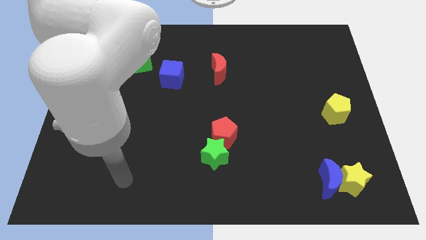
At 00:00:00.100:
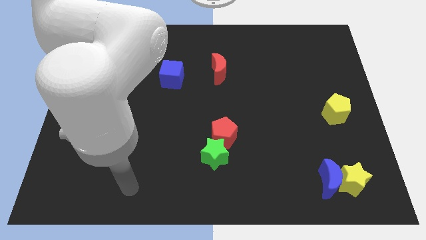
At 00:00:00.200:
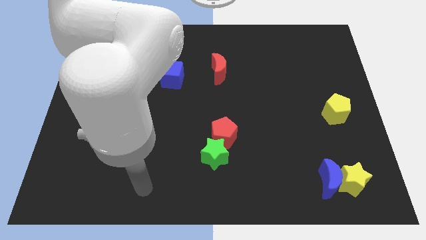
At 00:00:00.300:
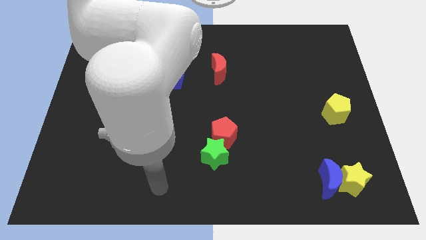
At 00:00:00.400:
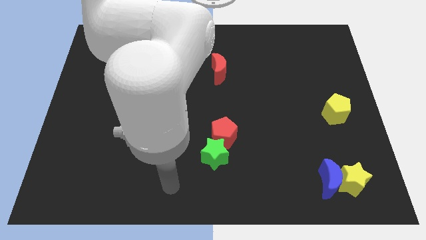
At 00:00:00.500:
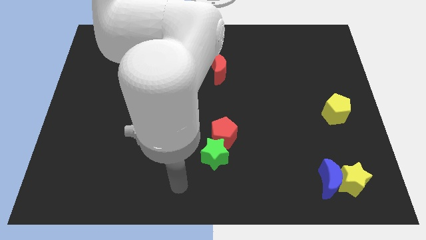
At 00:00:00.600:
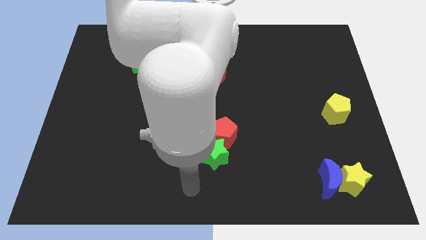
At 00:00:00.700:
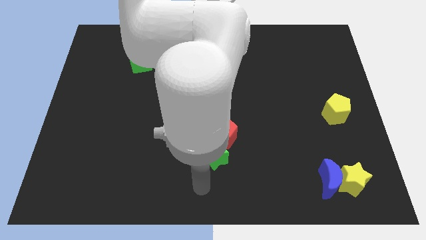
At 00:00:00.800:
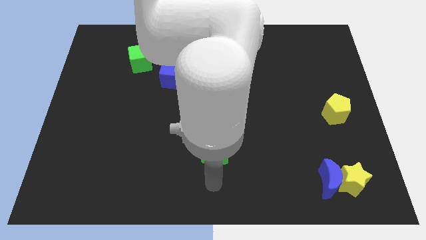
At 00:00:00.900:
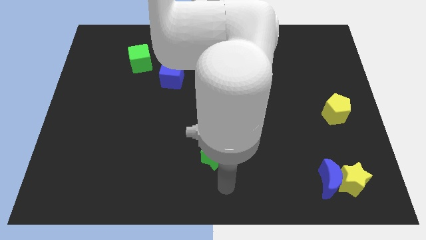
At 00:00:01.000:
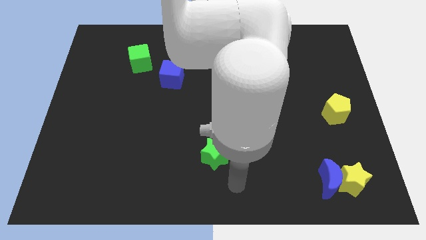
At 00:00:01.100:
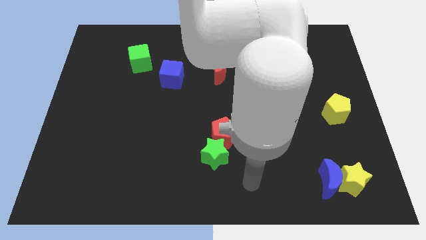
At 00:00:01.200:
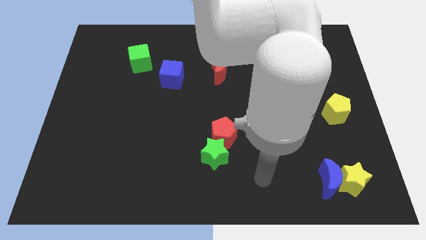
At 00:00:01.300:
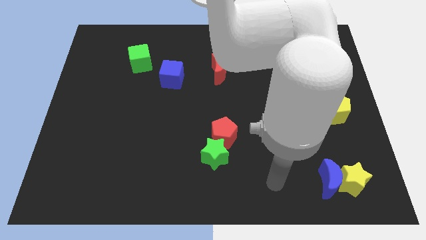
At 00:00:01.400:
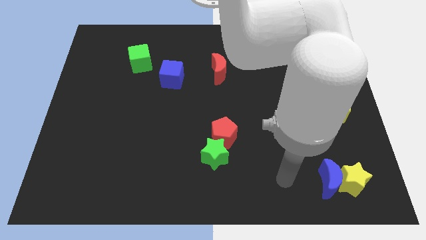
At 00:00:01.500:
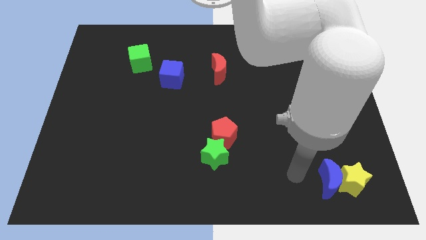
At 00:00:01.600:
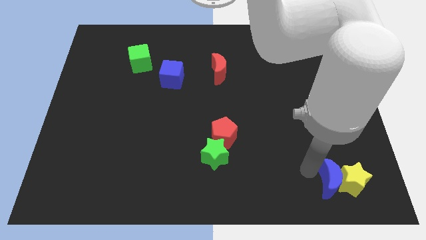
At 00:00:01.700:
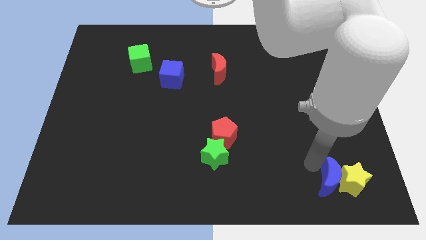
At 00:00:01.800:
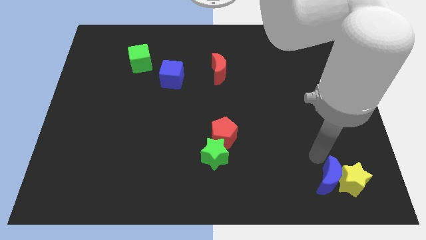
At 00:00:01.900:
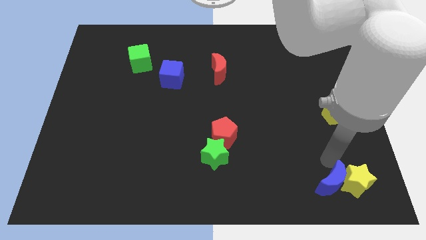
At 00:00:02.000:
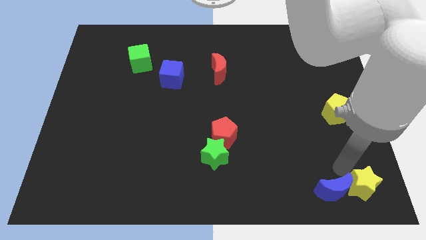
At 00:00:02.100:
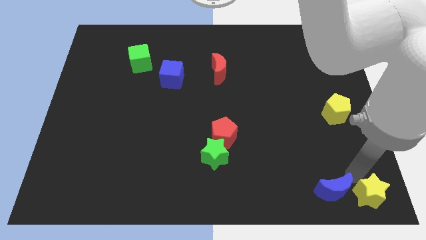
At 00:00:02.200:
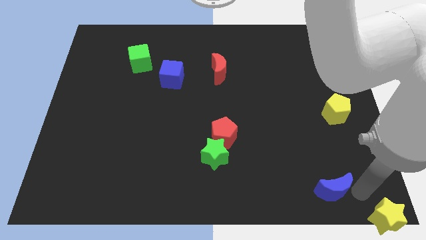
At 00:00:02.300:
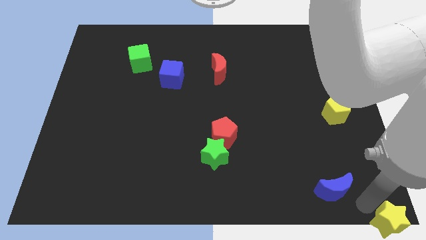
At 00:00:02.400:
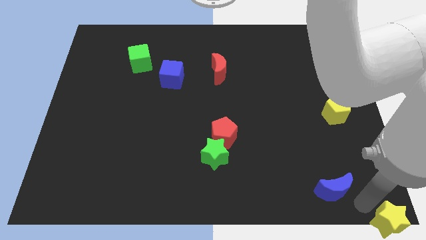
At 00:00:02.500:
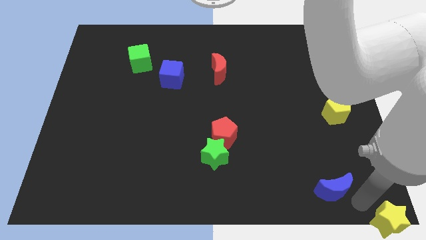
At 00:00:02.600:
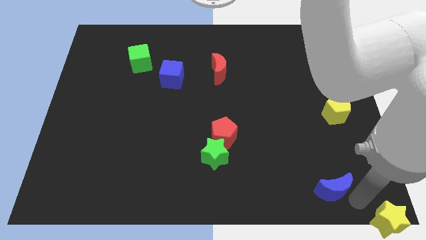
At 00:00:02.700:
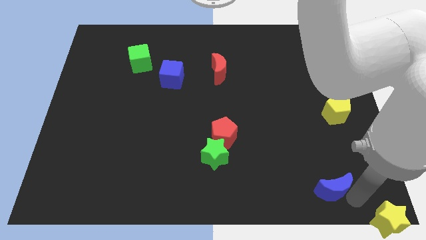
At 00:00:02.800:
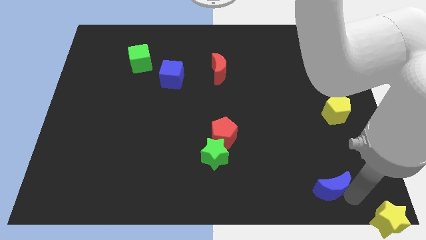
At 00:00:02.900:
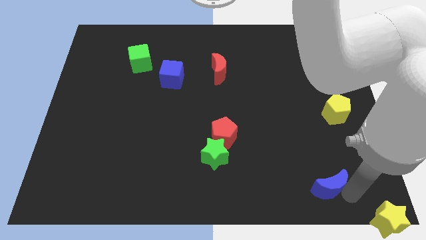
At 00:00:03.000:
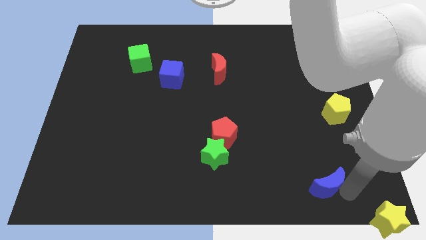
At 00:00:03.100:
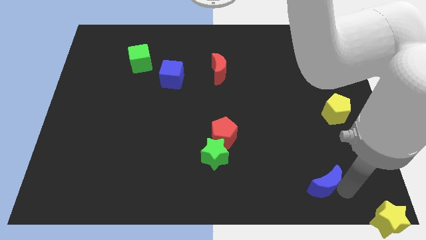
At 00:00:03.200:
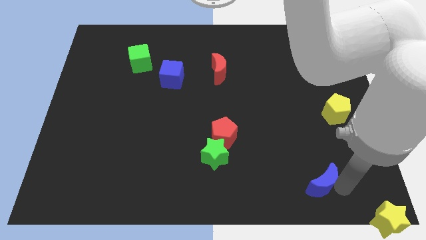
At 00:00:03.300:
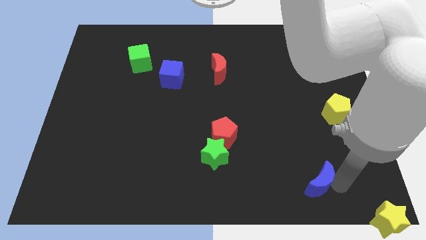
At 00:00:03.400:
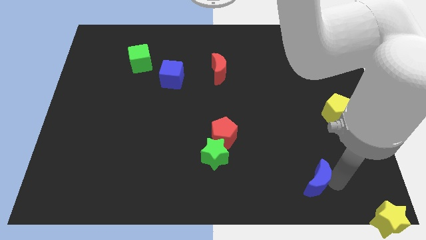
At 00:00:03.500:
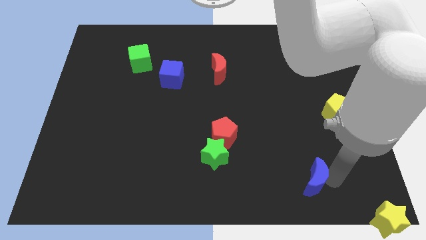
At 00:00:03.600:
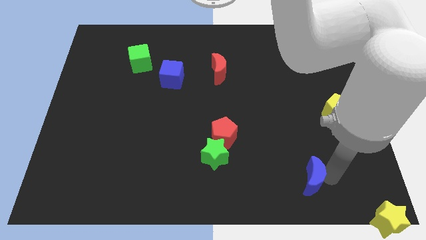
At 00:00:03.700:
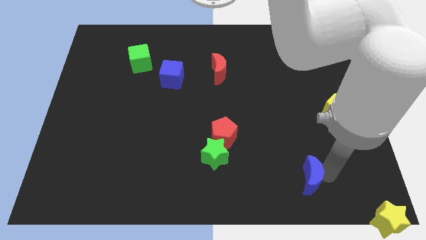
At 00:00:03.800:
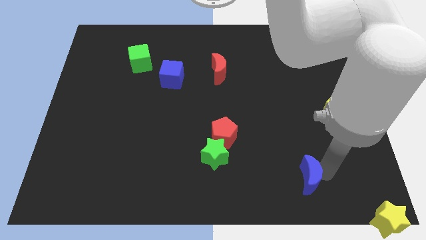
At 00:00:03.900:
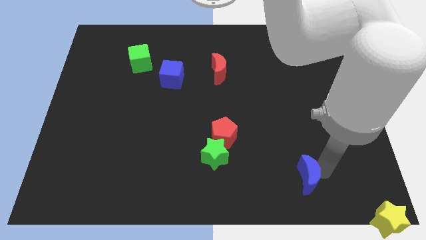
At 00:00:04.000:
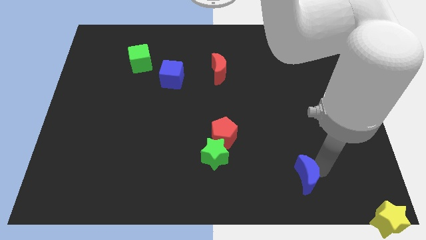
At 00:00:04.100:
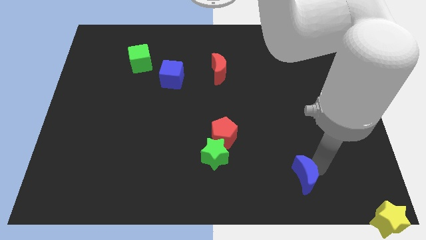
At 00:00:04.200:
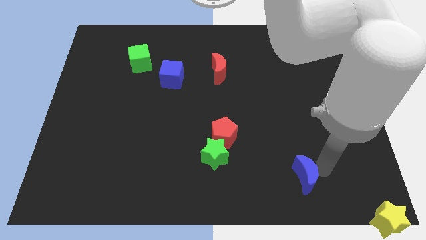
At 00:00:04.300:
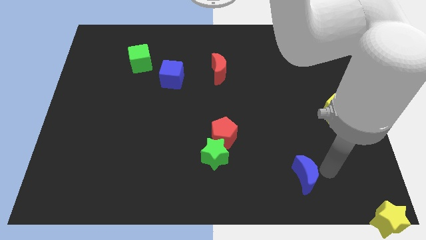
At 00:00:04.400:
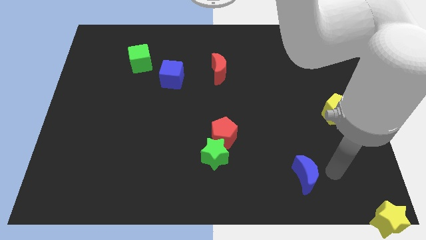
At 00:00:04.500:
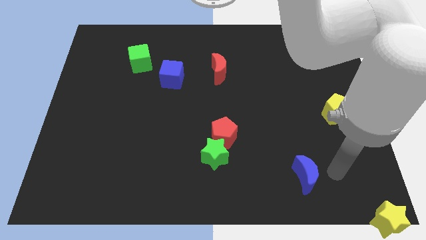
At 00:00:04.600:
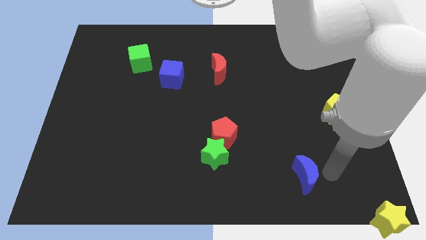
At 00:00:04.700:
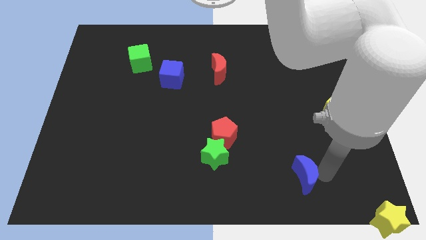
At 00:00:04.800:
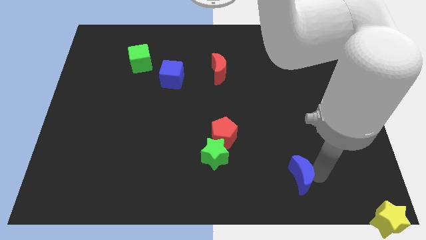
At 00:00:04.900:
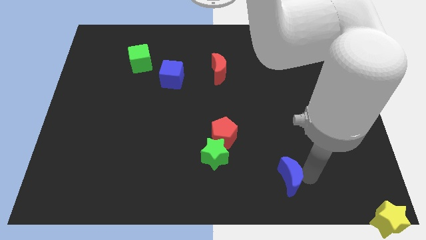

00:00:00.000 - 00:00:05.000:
slide the blue moon left a little bit

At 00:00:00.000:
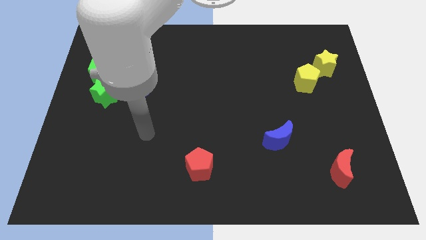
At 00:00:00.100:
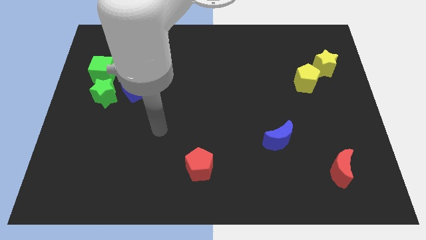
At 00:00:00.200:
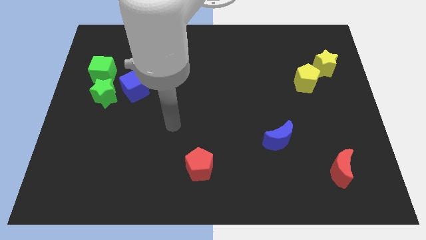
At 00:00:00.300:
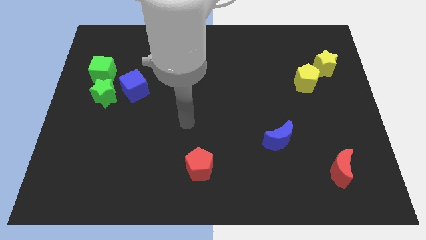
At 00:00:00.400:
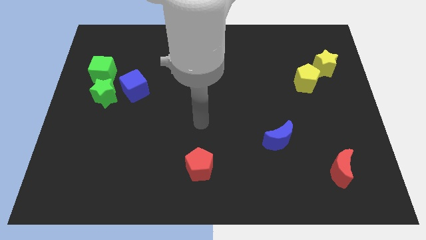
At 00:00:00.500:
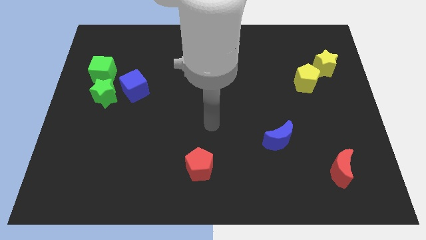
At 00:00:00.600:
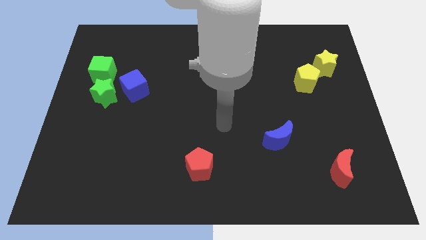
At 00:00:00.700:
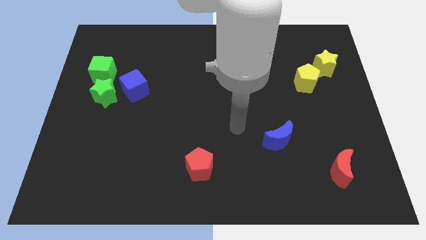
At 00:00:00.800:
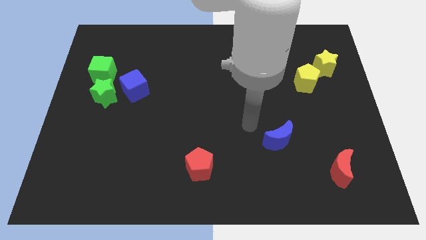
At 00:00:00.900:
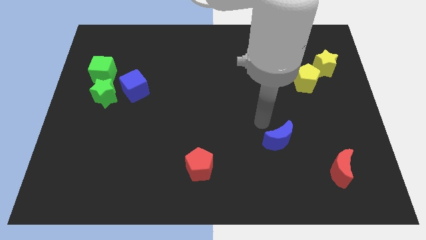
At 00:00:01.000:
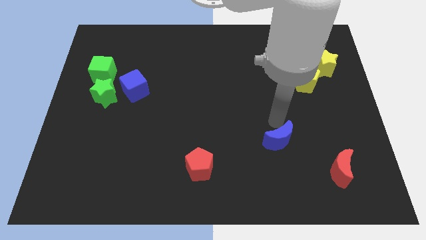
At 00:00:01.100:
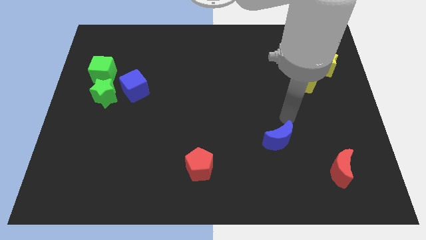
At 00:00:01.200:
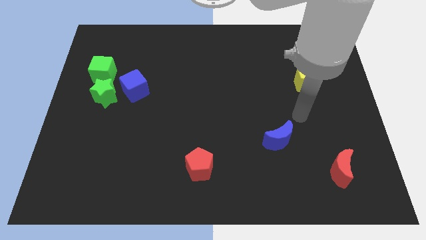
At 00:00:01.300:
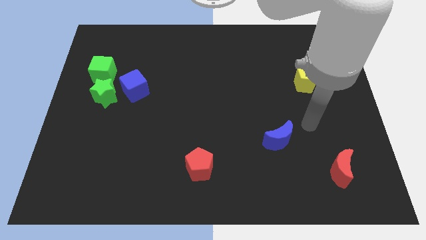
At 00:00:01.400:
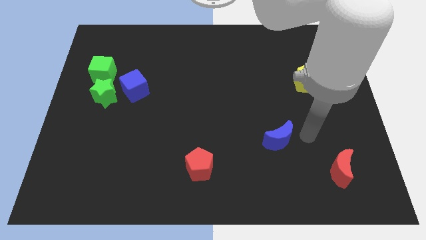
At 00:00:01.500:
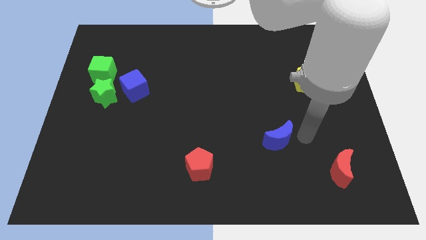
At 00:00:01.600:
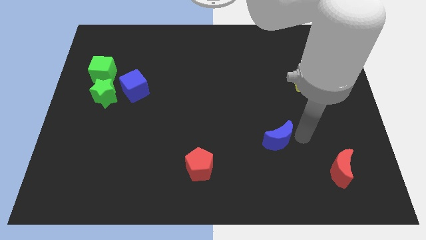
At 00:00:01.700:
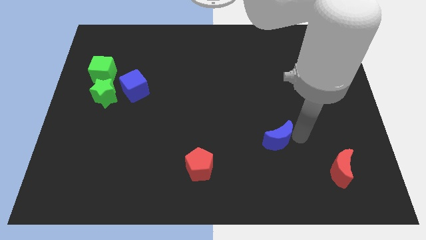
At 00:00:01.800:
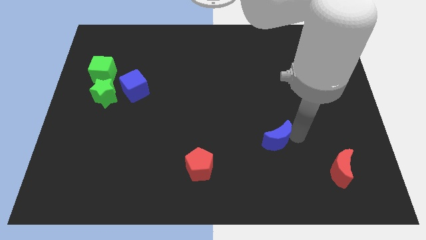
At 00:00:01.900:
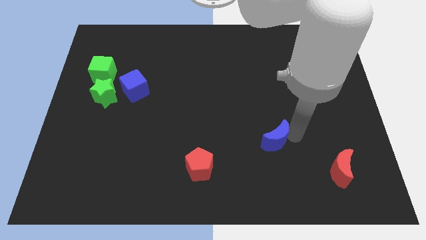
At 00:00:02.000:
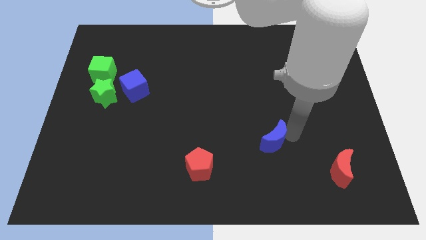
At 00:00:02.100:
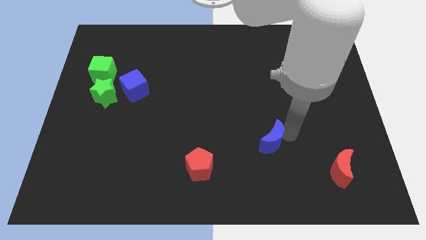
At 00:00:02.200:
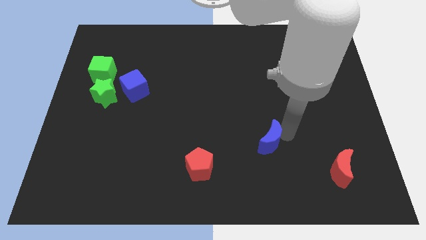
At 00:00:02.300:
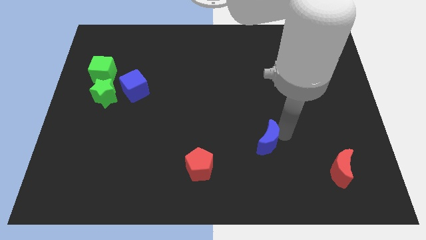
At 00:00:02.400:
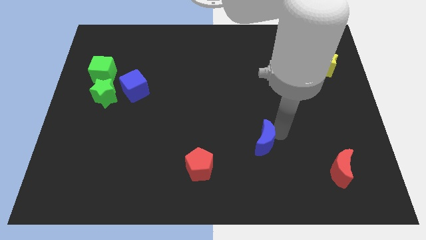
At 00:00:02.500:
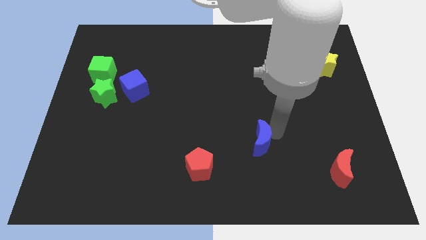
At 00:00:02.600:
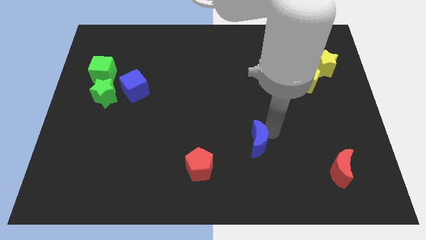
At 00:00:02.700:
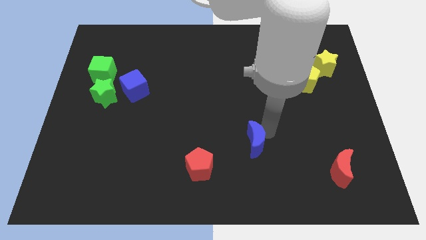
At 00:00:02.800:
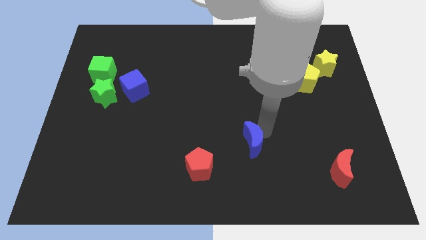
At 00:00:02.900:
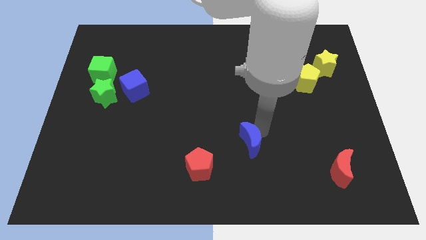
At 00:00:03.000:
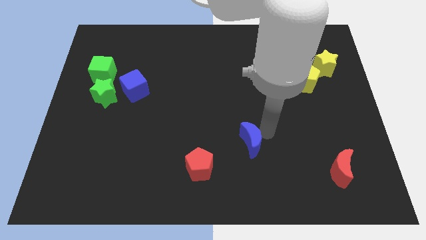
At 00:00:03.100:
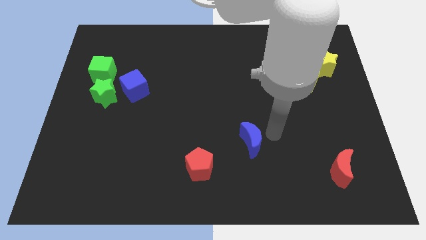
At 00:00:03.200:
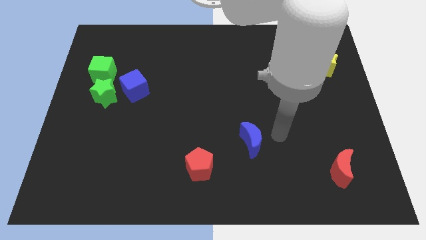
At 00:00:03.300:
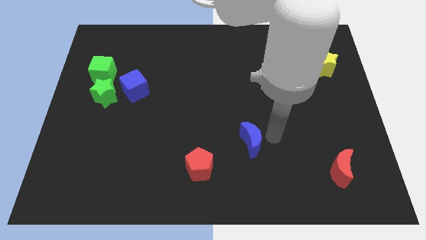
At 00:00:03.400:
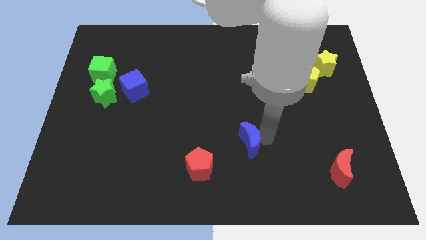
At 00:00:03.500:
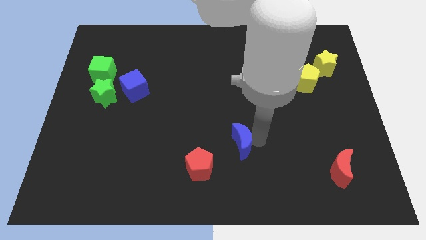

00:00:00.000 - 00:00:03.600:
slide the blue moon left a bit
